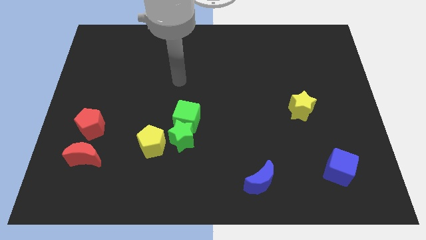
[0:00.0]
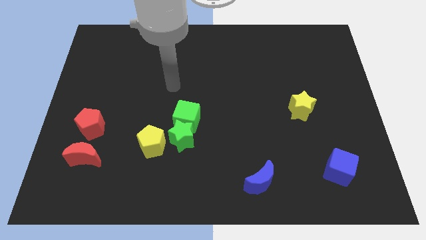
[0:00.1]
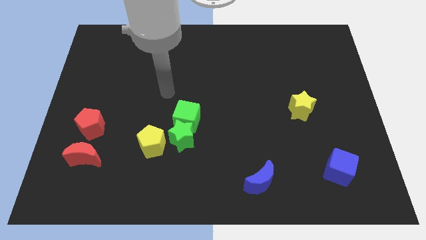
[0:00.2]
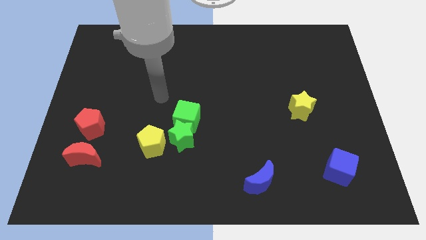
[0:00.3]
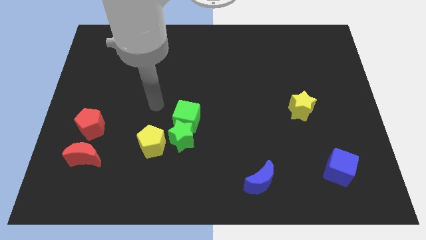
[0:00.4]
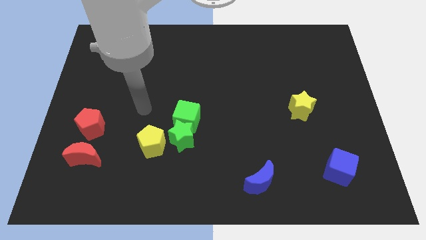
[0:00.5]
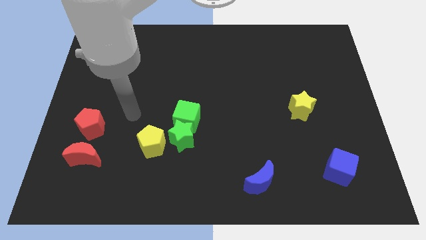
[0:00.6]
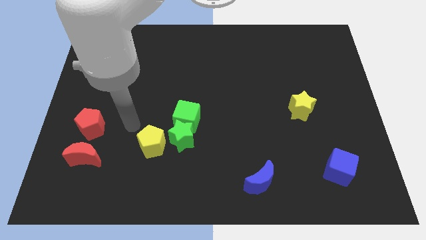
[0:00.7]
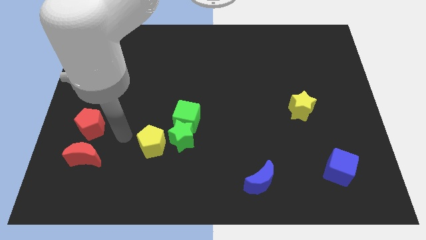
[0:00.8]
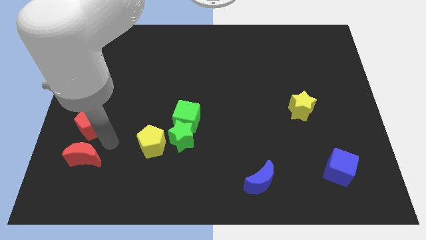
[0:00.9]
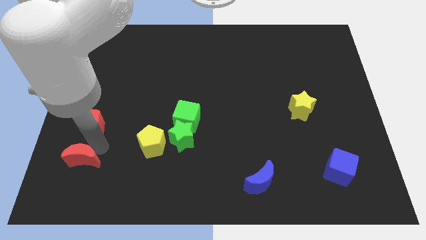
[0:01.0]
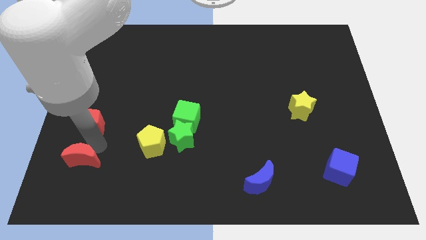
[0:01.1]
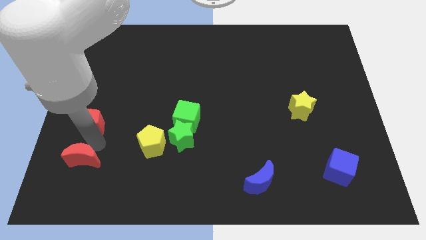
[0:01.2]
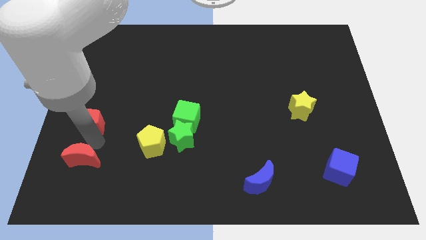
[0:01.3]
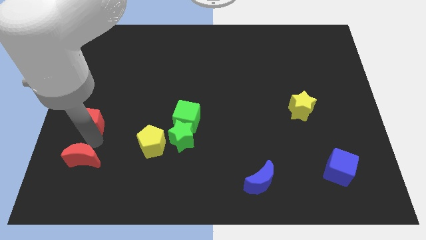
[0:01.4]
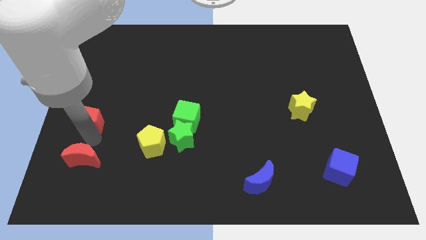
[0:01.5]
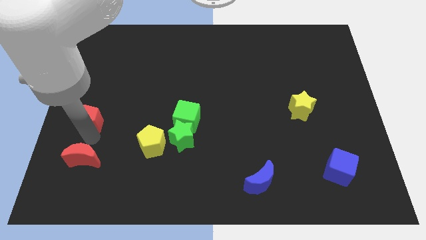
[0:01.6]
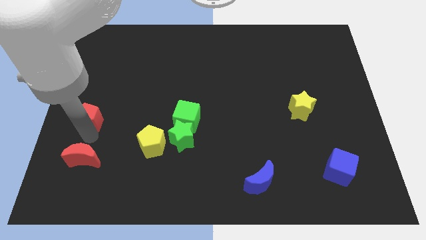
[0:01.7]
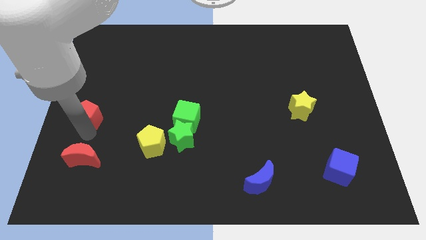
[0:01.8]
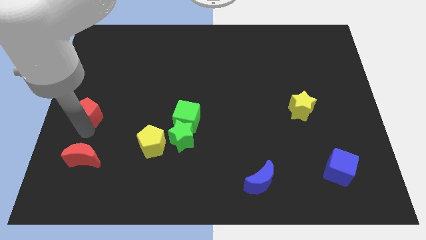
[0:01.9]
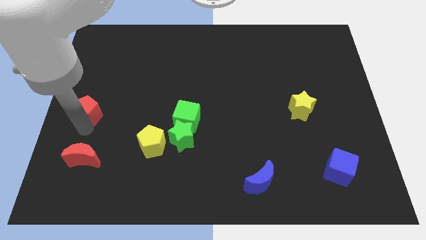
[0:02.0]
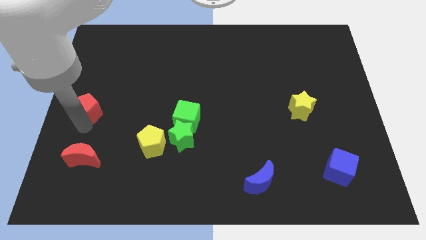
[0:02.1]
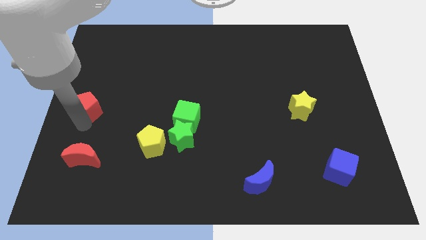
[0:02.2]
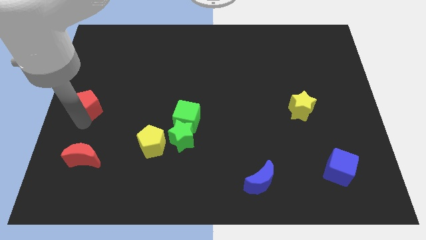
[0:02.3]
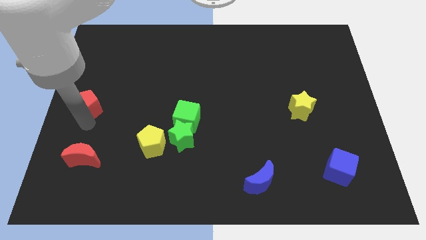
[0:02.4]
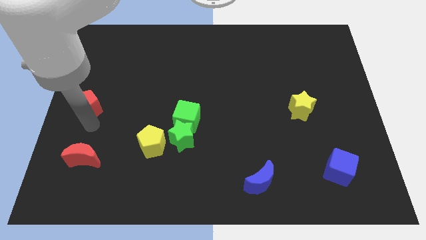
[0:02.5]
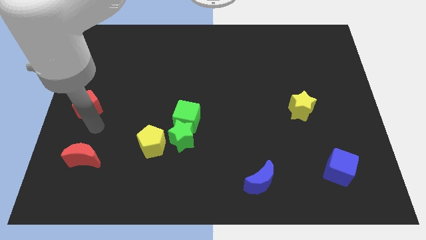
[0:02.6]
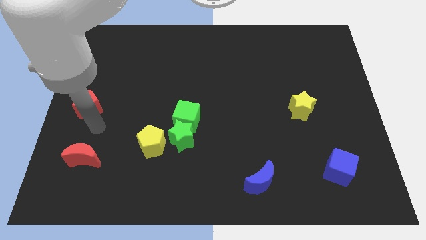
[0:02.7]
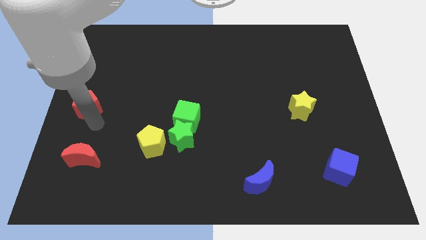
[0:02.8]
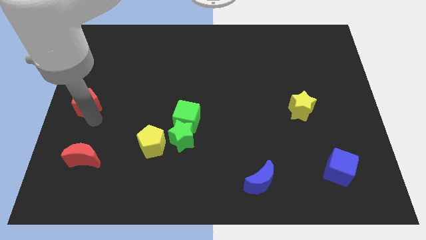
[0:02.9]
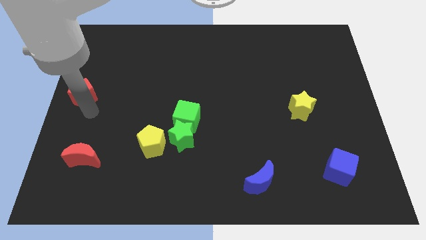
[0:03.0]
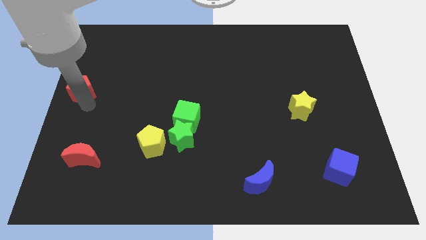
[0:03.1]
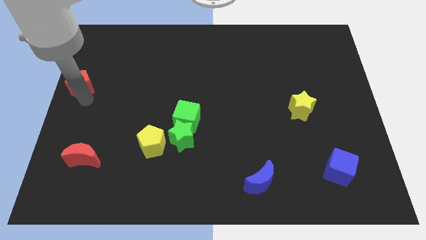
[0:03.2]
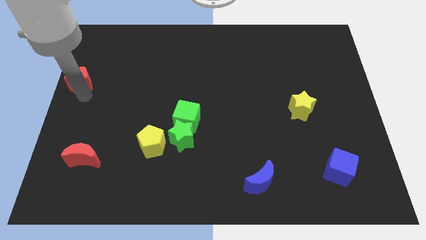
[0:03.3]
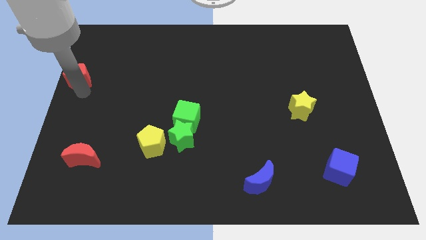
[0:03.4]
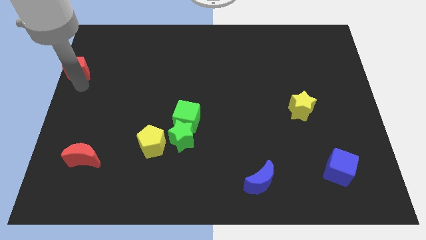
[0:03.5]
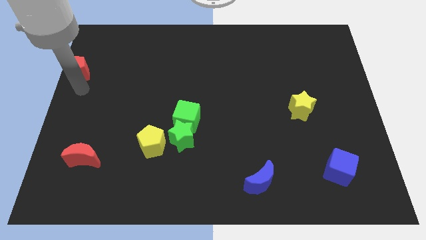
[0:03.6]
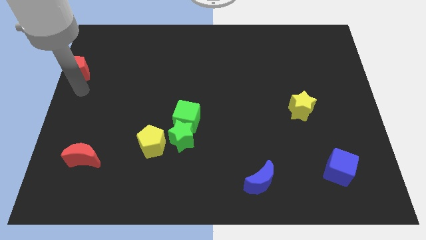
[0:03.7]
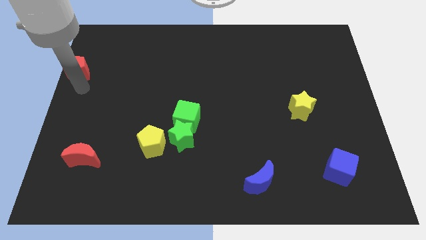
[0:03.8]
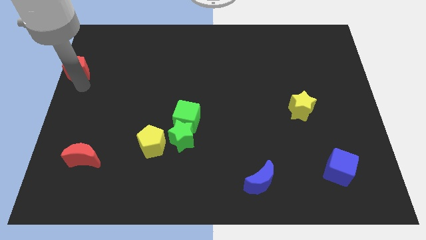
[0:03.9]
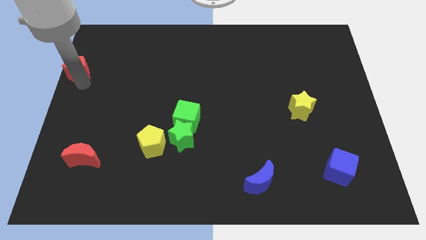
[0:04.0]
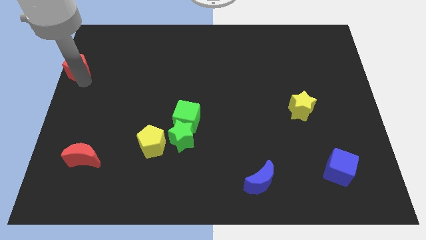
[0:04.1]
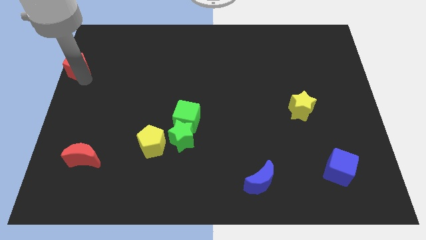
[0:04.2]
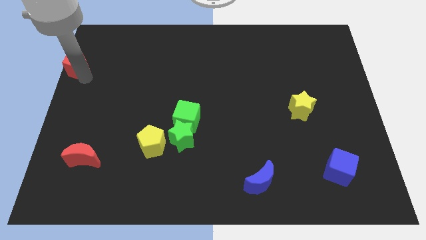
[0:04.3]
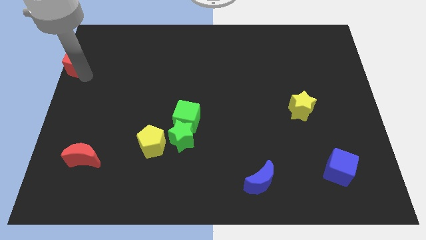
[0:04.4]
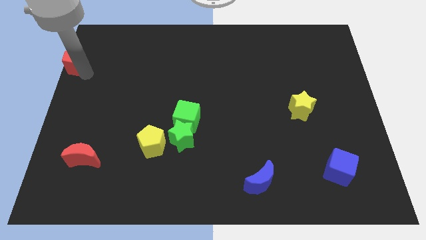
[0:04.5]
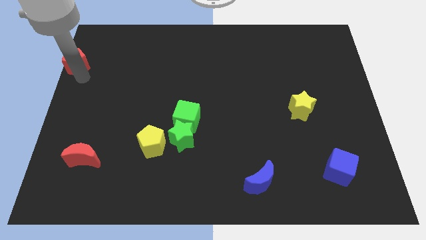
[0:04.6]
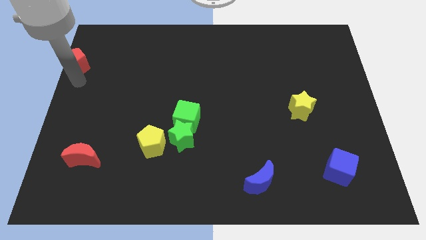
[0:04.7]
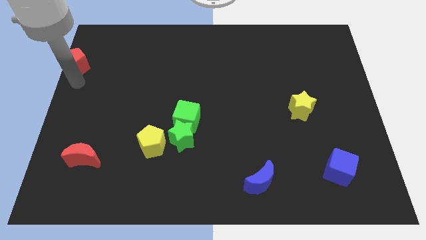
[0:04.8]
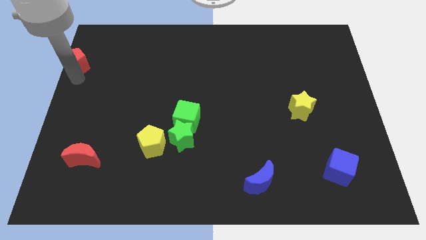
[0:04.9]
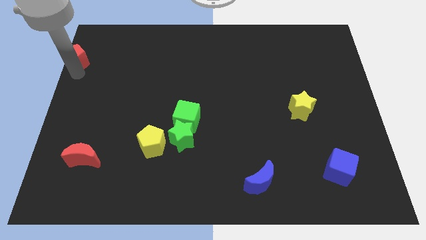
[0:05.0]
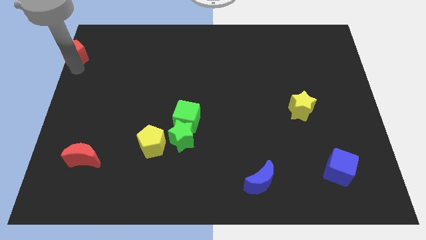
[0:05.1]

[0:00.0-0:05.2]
put the red pentagon to the top left

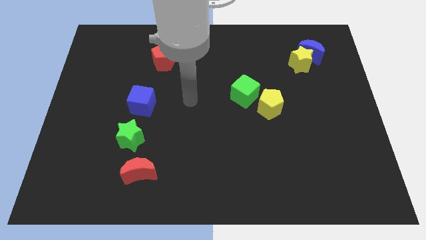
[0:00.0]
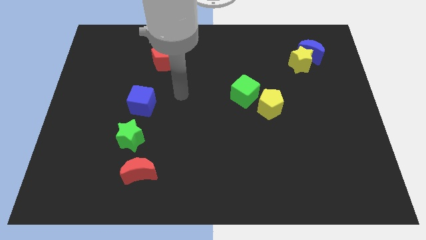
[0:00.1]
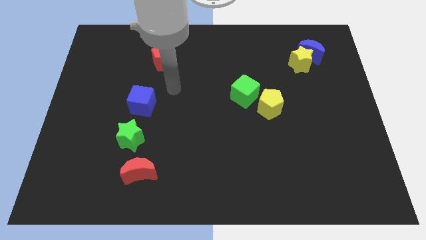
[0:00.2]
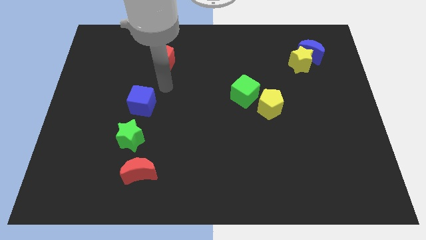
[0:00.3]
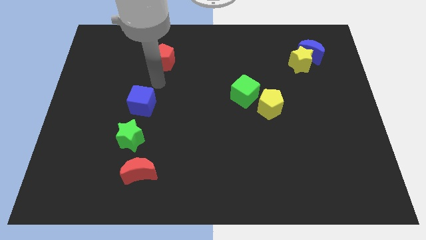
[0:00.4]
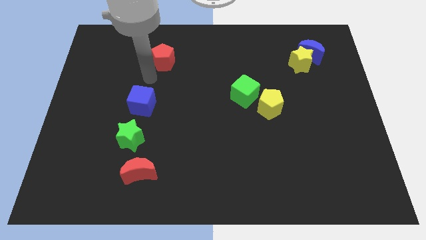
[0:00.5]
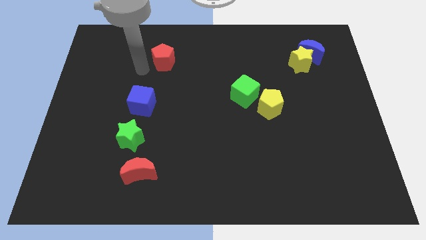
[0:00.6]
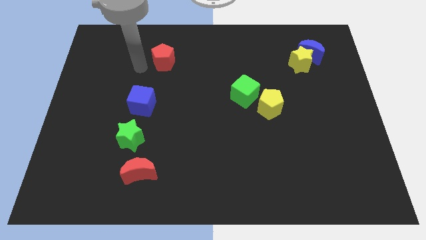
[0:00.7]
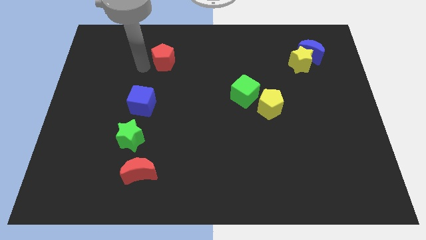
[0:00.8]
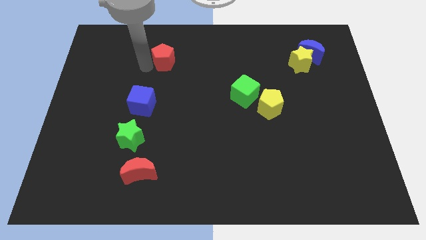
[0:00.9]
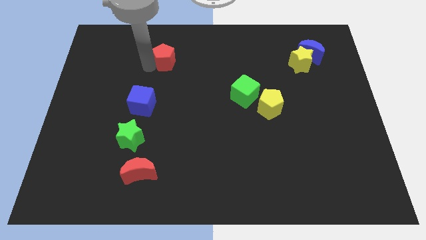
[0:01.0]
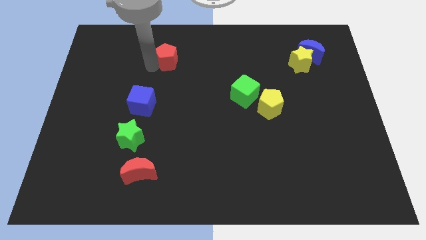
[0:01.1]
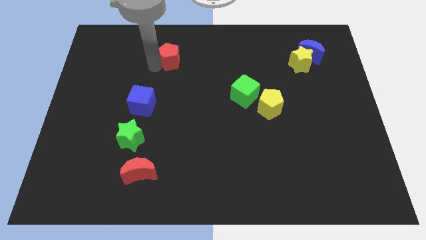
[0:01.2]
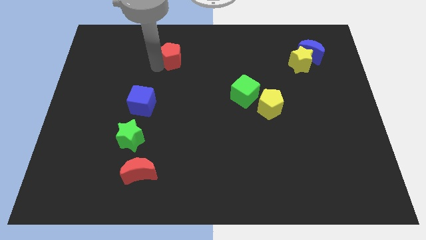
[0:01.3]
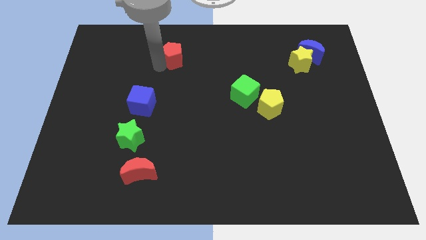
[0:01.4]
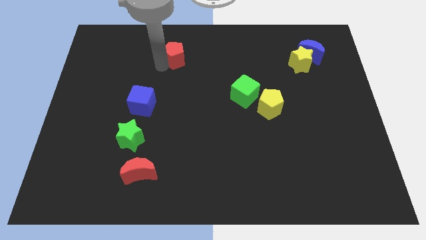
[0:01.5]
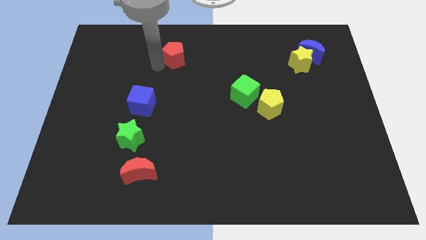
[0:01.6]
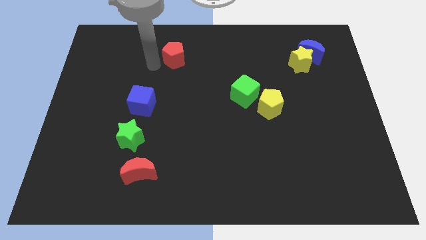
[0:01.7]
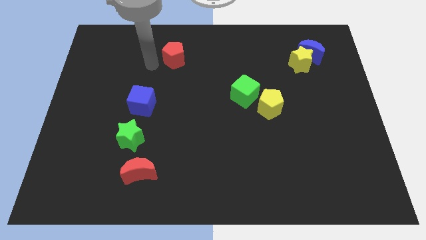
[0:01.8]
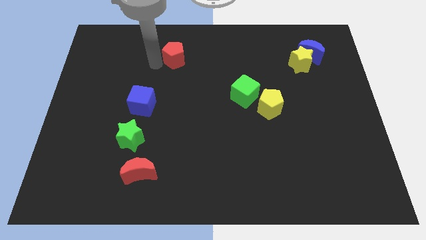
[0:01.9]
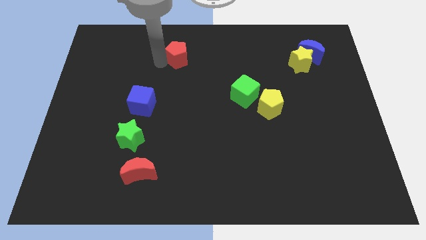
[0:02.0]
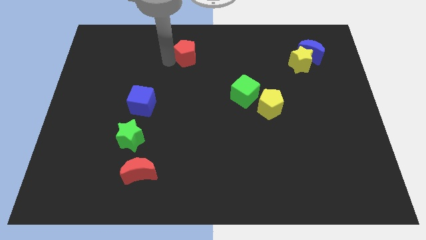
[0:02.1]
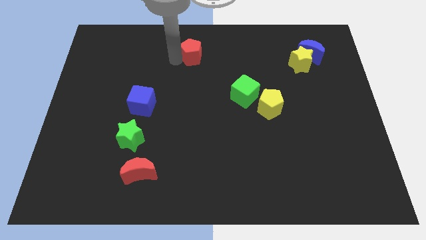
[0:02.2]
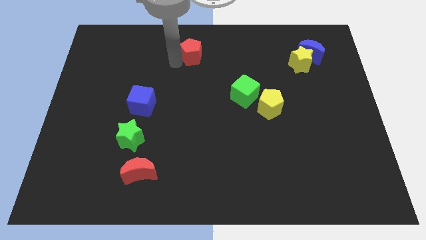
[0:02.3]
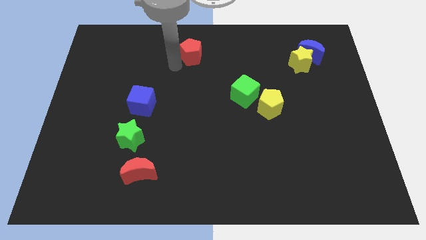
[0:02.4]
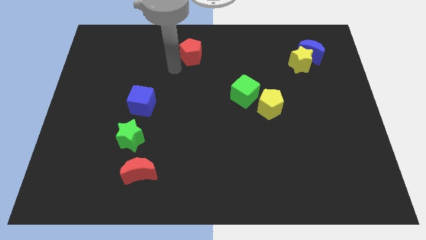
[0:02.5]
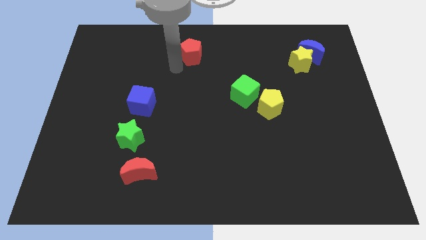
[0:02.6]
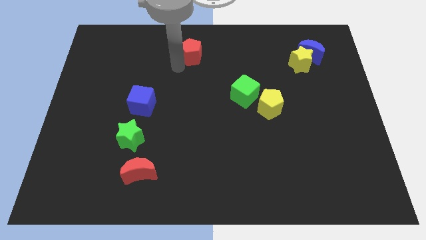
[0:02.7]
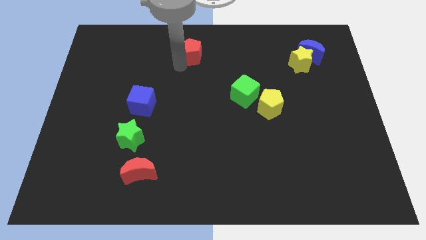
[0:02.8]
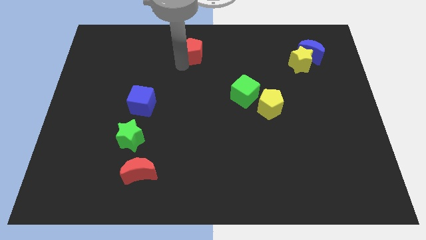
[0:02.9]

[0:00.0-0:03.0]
put the red pentagon to the towards your base
